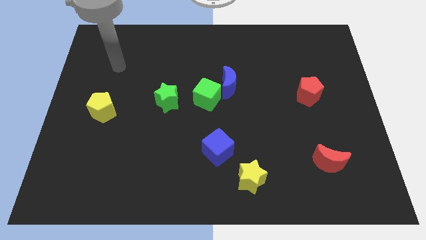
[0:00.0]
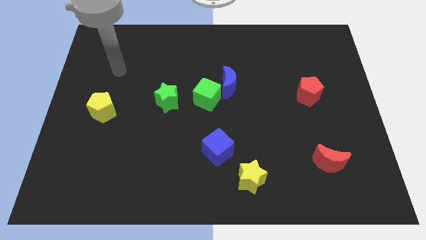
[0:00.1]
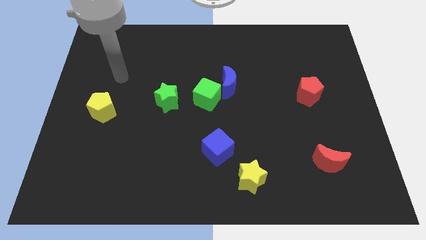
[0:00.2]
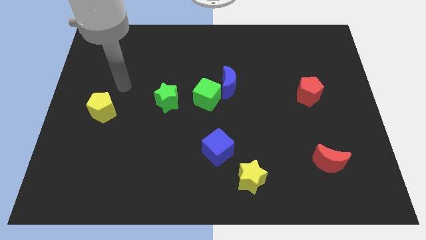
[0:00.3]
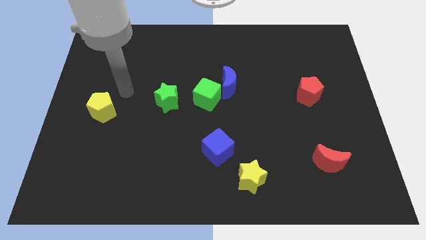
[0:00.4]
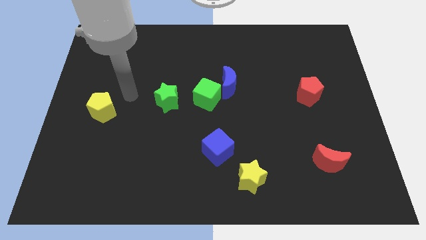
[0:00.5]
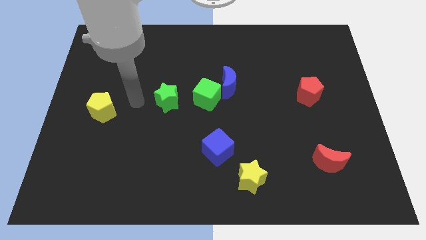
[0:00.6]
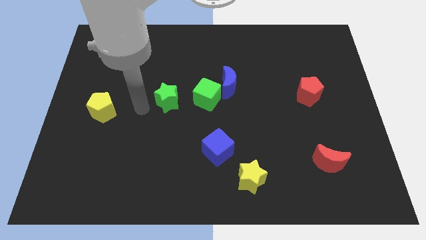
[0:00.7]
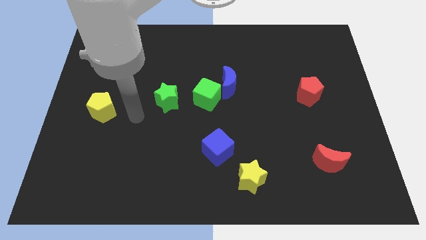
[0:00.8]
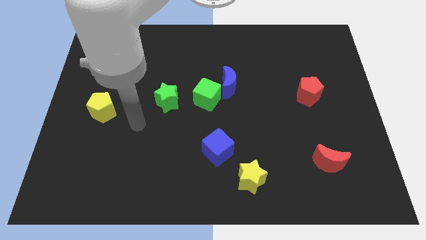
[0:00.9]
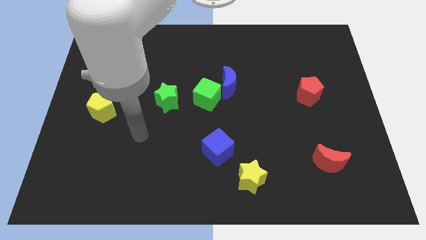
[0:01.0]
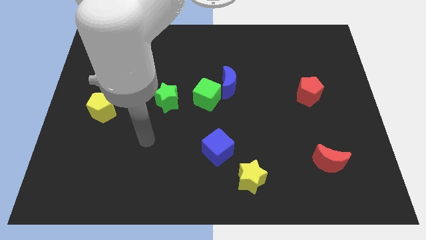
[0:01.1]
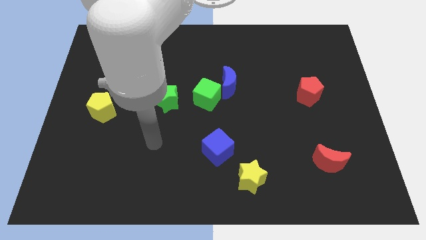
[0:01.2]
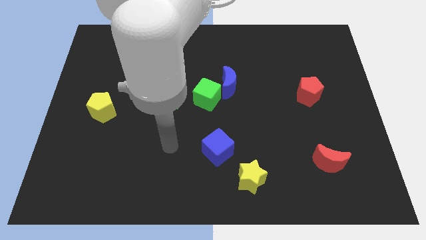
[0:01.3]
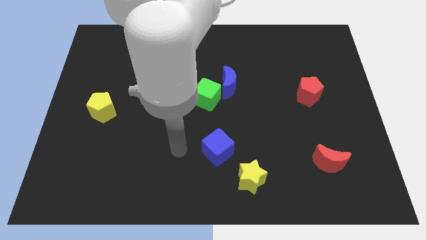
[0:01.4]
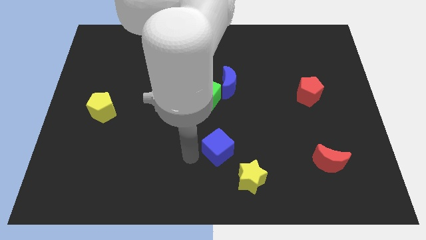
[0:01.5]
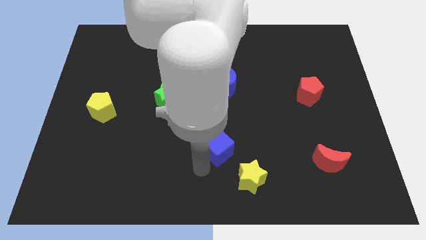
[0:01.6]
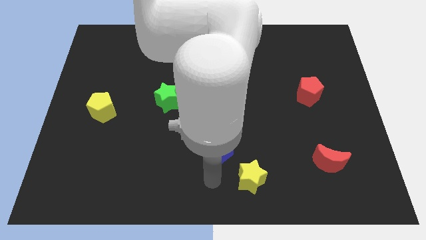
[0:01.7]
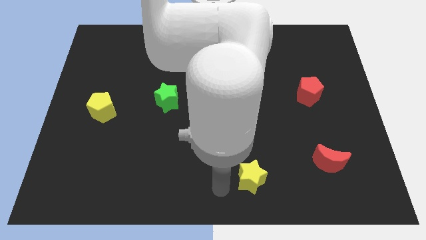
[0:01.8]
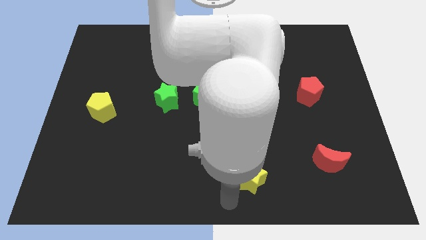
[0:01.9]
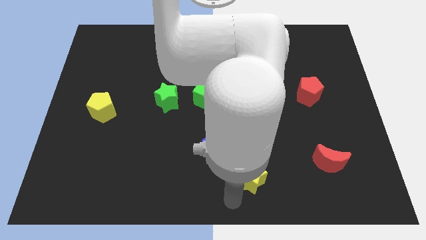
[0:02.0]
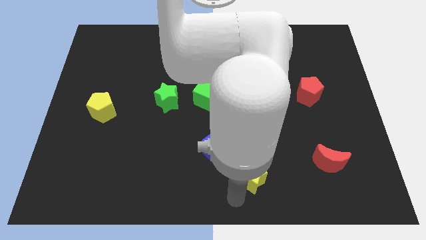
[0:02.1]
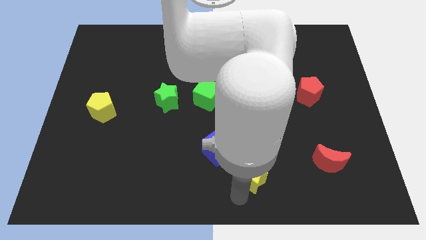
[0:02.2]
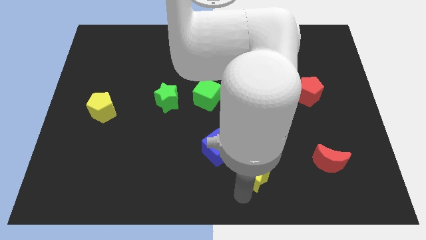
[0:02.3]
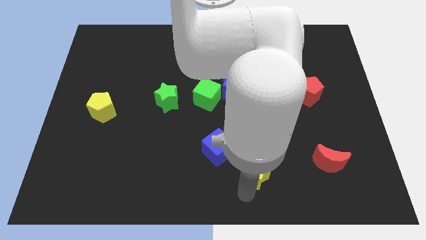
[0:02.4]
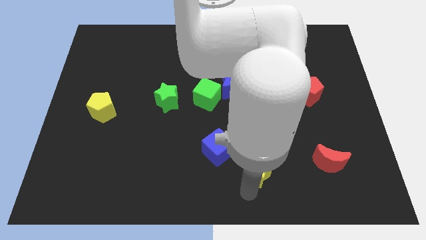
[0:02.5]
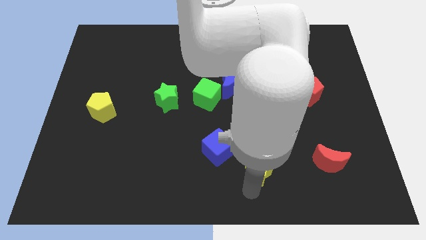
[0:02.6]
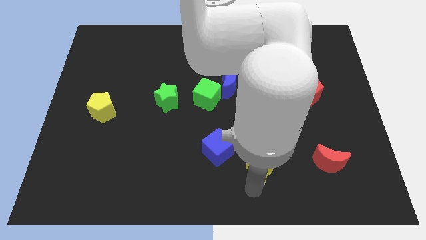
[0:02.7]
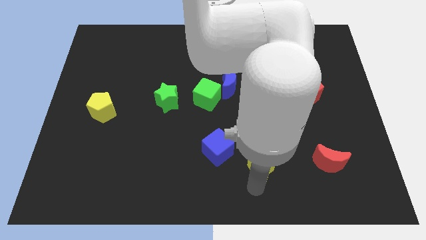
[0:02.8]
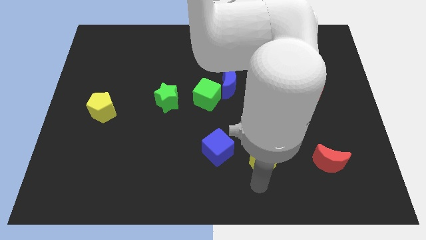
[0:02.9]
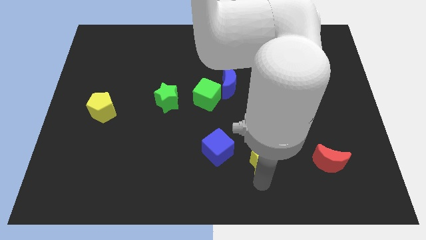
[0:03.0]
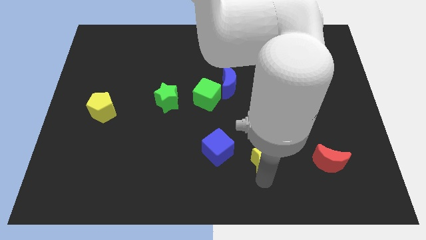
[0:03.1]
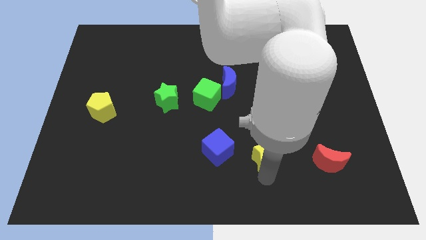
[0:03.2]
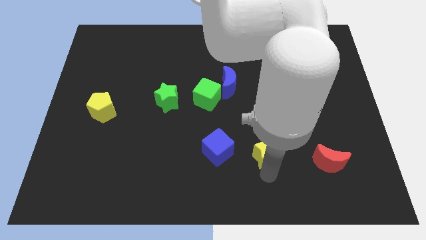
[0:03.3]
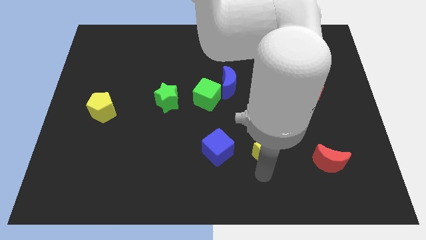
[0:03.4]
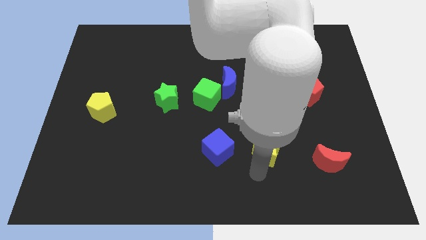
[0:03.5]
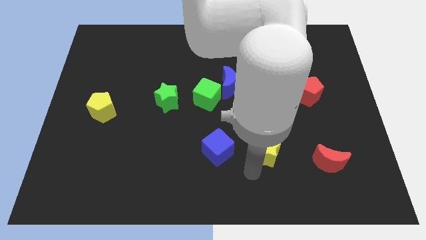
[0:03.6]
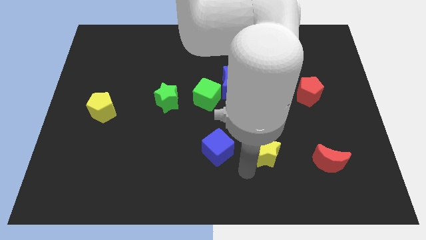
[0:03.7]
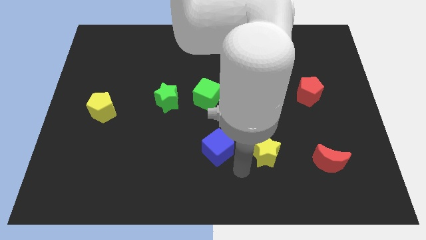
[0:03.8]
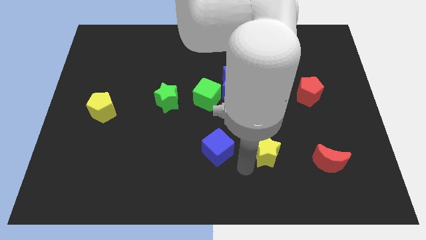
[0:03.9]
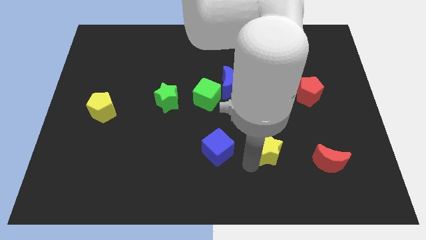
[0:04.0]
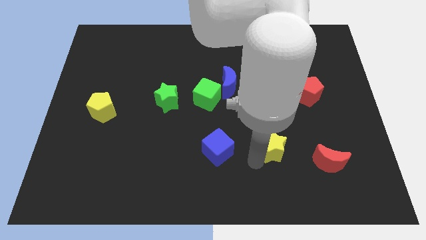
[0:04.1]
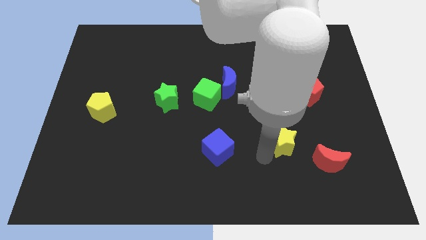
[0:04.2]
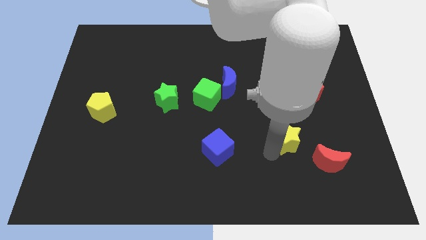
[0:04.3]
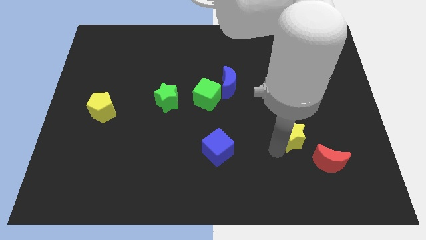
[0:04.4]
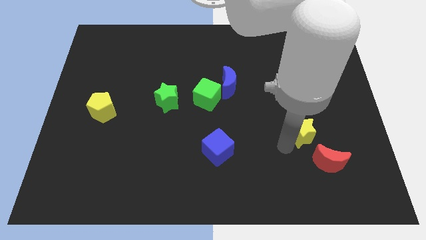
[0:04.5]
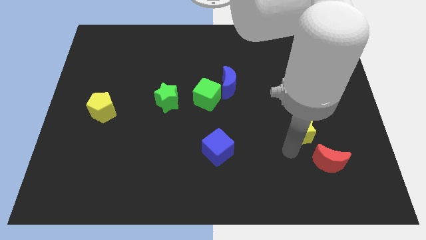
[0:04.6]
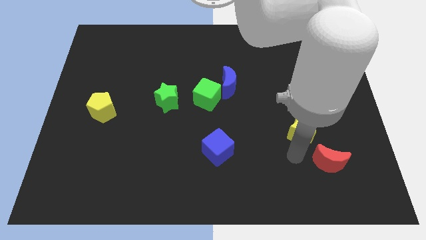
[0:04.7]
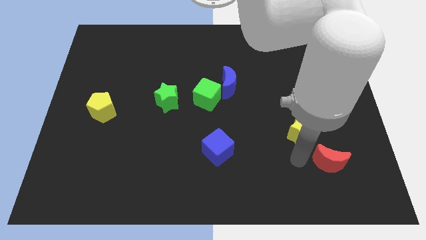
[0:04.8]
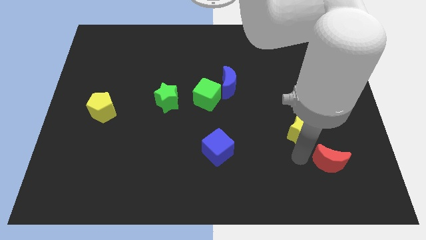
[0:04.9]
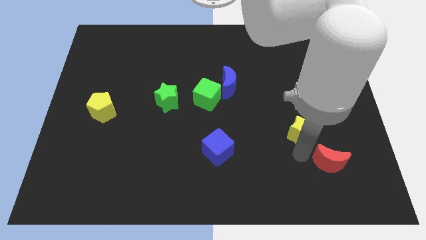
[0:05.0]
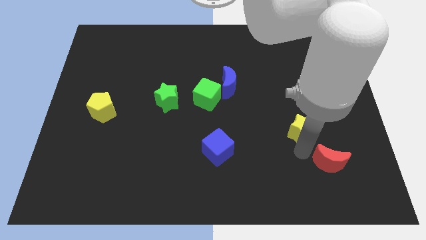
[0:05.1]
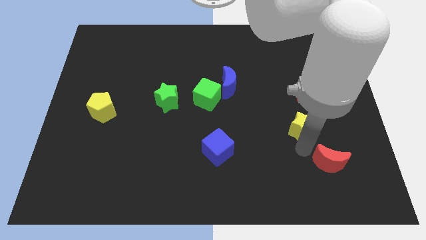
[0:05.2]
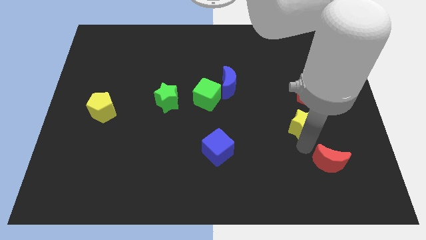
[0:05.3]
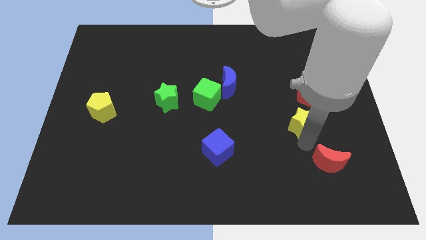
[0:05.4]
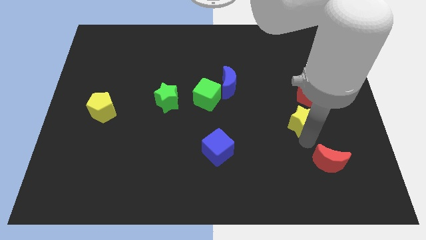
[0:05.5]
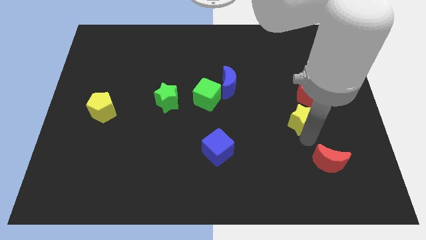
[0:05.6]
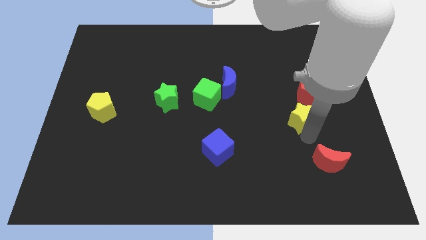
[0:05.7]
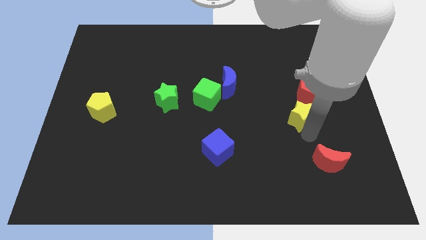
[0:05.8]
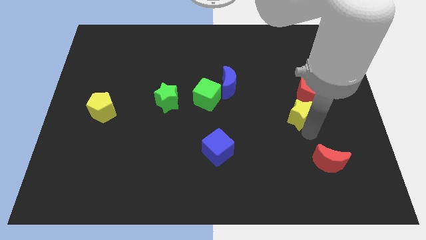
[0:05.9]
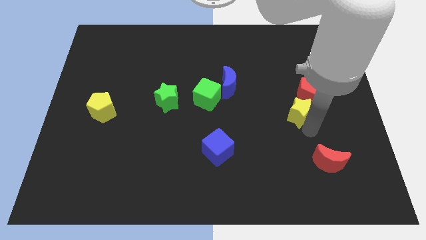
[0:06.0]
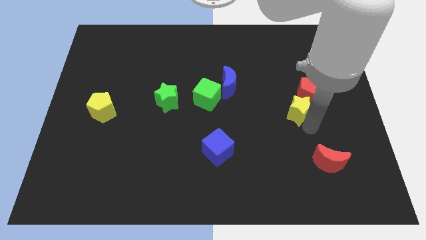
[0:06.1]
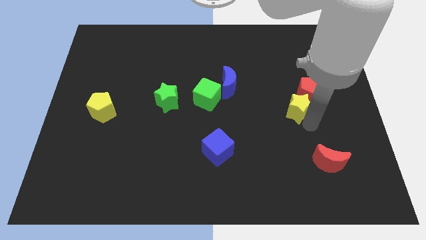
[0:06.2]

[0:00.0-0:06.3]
move the yellow star towards the red pentagon

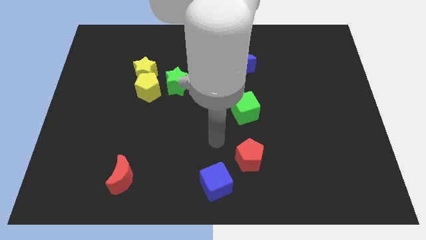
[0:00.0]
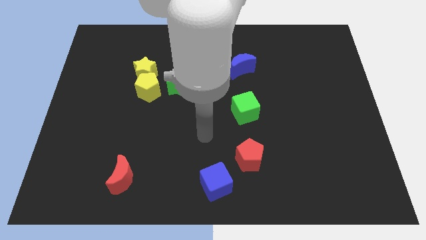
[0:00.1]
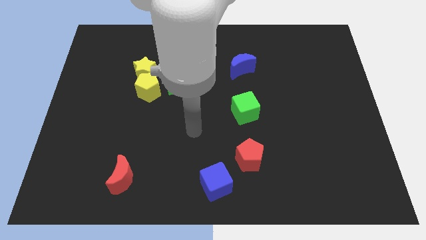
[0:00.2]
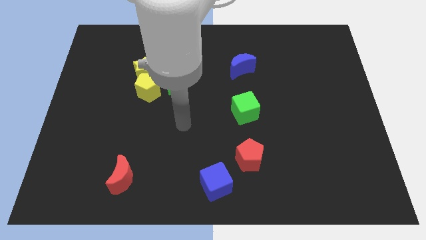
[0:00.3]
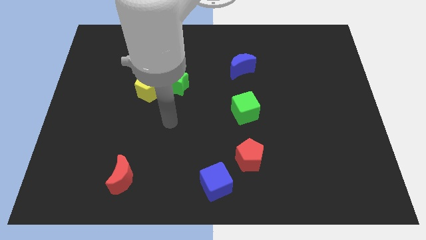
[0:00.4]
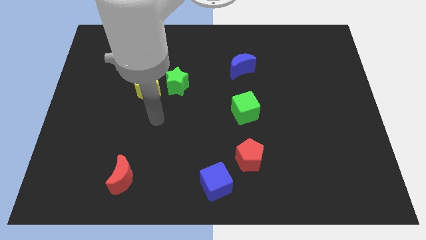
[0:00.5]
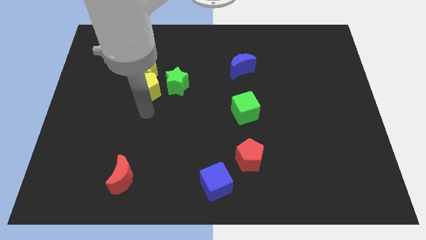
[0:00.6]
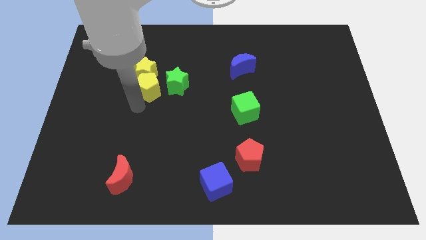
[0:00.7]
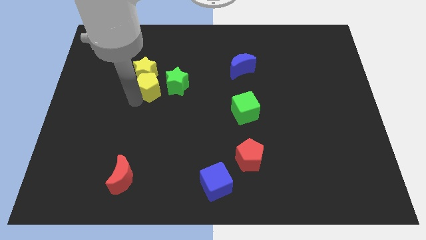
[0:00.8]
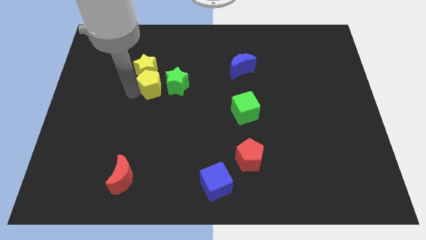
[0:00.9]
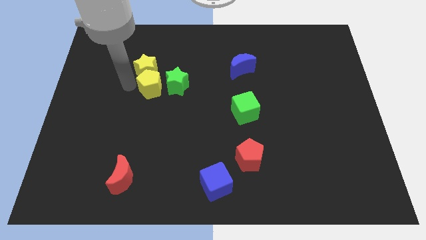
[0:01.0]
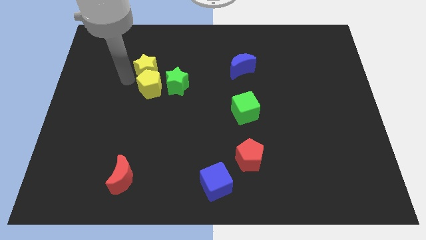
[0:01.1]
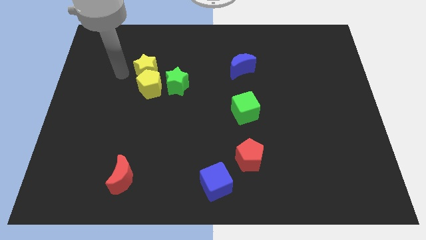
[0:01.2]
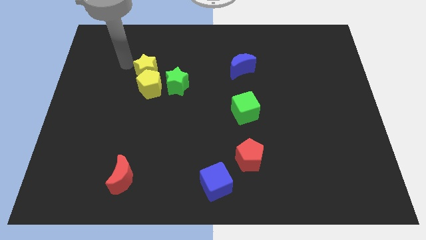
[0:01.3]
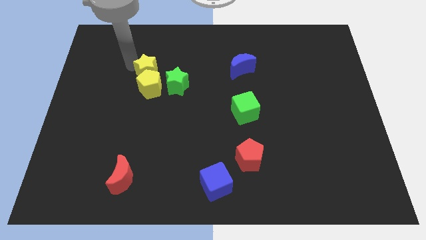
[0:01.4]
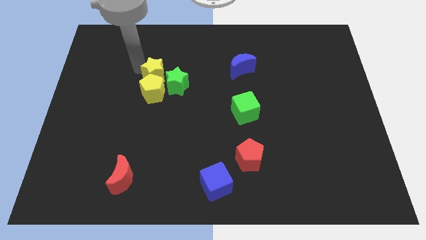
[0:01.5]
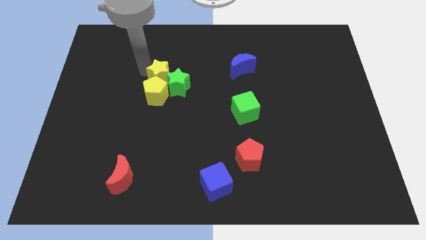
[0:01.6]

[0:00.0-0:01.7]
move the yellow star to the green star
